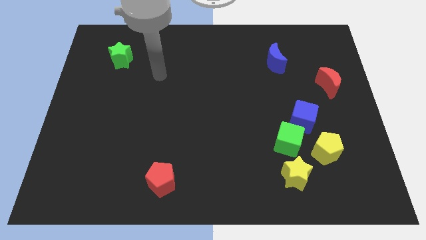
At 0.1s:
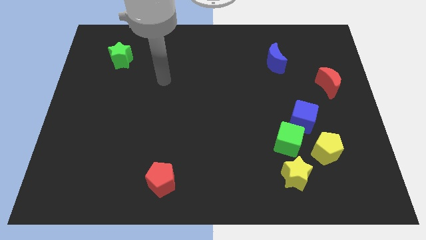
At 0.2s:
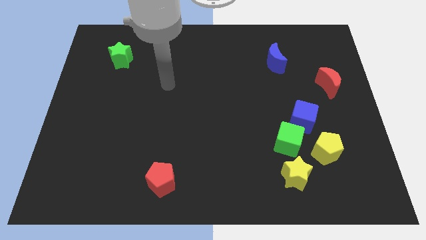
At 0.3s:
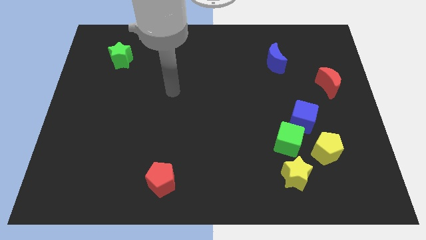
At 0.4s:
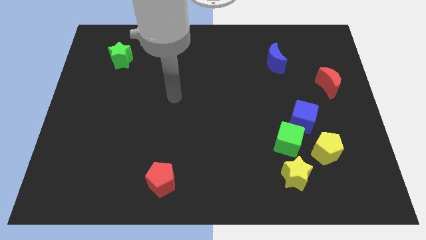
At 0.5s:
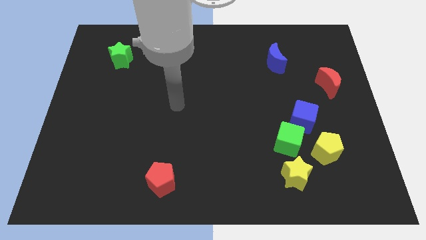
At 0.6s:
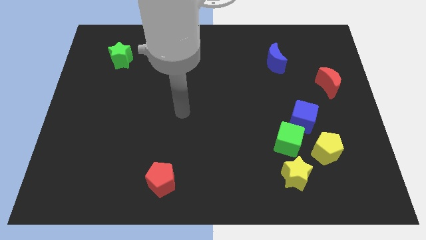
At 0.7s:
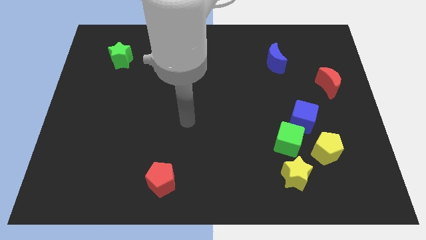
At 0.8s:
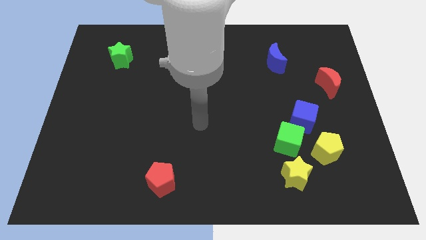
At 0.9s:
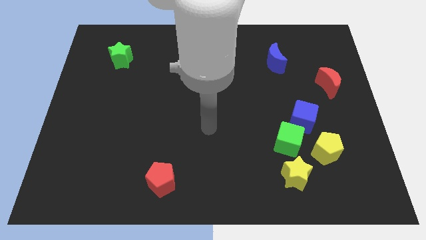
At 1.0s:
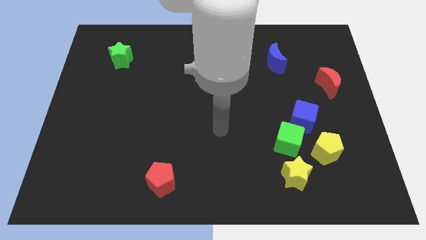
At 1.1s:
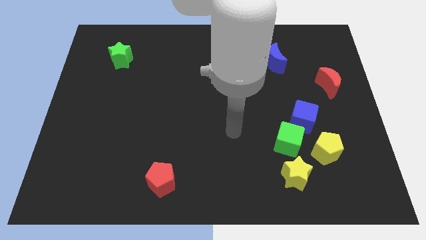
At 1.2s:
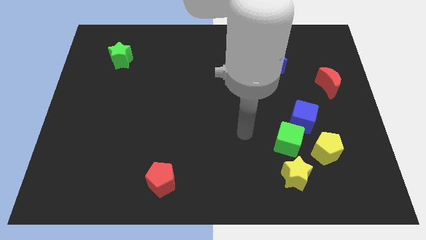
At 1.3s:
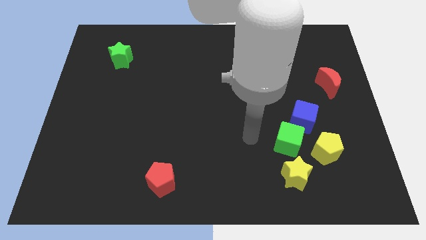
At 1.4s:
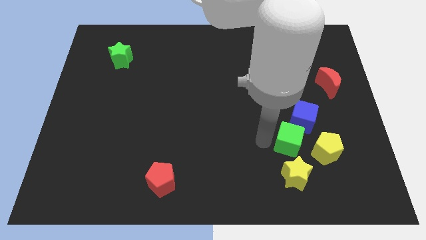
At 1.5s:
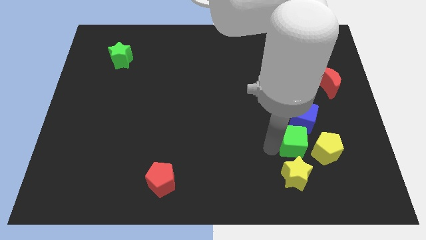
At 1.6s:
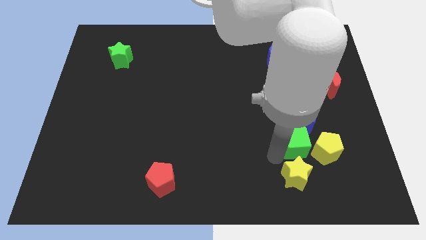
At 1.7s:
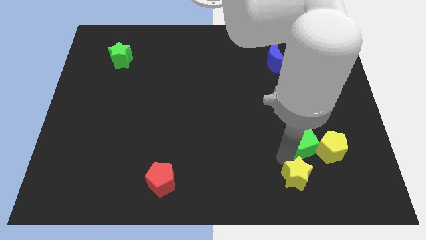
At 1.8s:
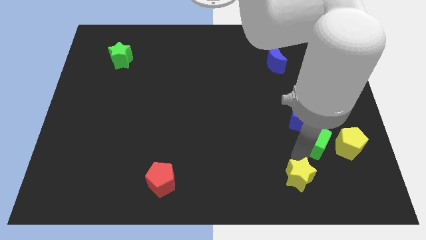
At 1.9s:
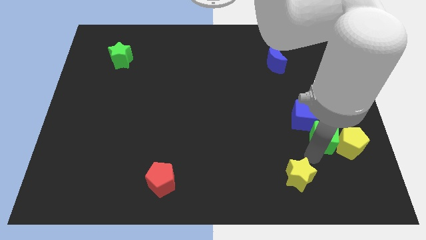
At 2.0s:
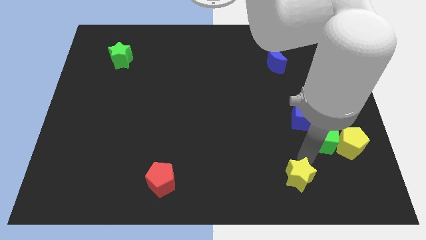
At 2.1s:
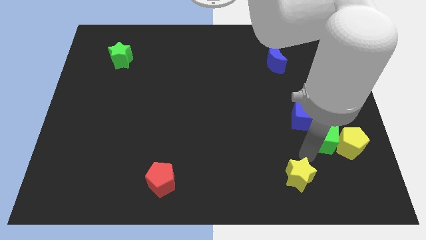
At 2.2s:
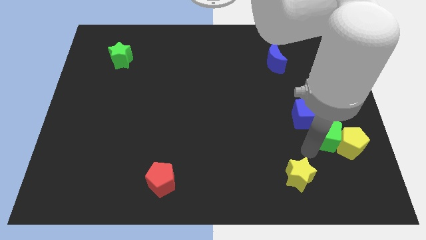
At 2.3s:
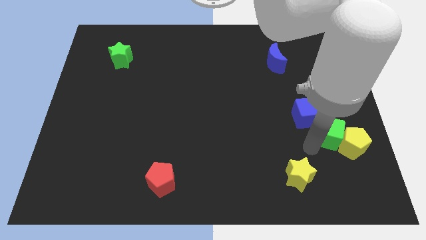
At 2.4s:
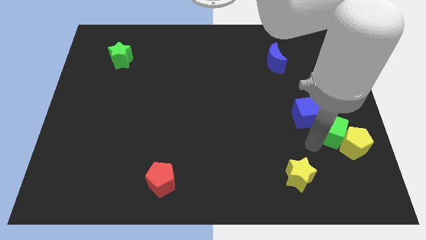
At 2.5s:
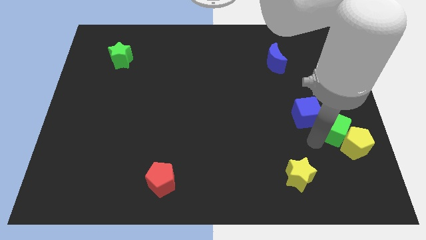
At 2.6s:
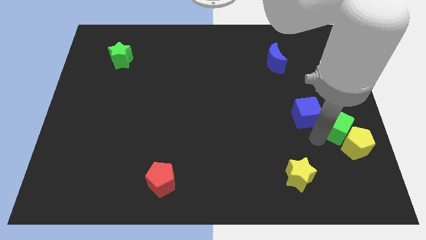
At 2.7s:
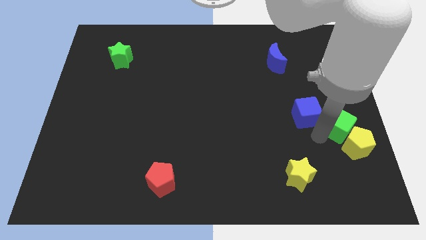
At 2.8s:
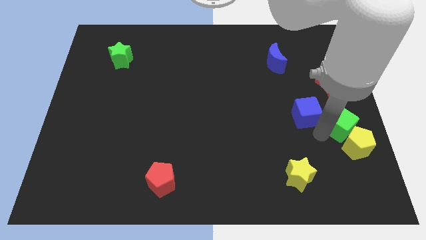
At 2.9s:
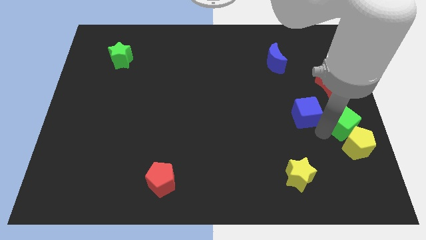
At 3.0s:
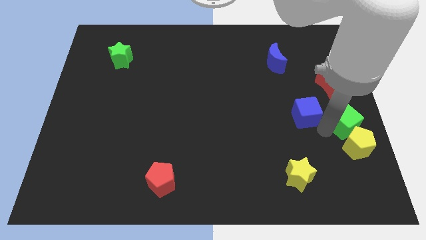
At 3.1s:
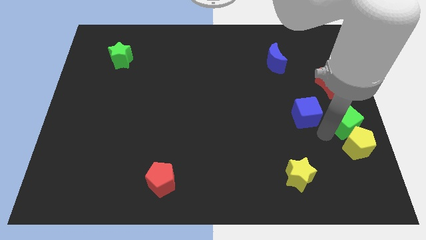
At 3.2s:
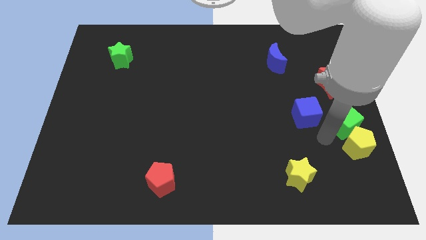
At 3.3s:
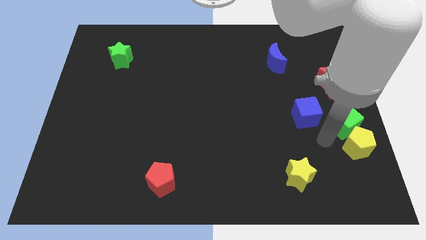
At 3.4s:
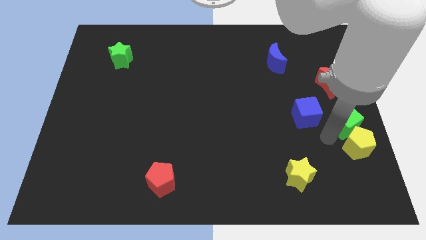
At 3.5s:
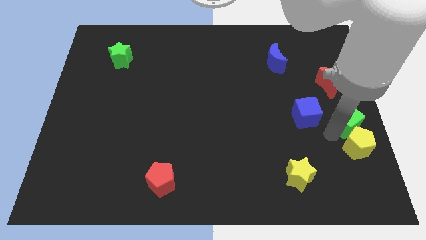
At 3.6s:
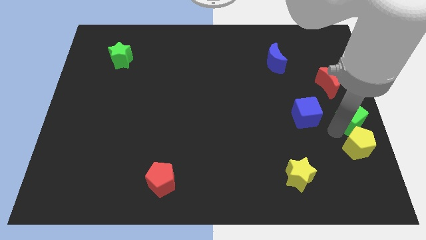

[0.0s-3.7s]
move the green cube away from the blue cube, yellow pentagon, and yellow star

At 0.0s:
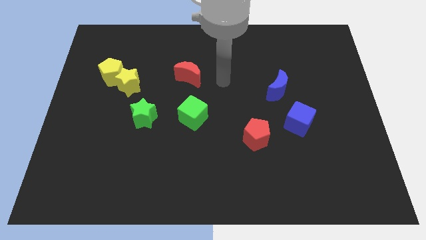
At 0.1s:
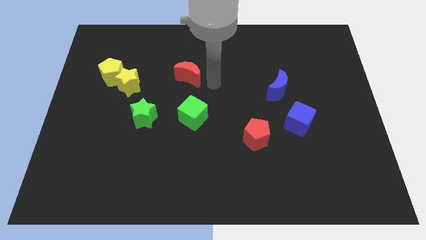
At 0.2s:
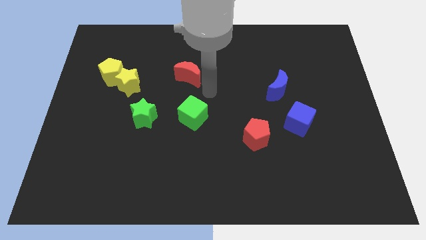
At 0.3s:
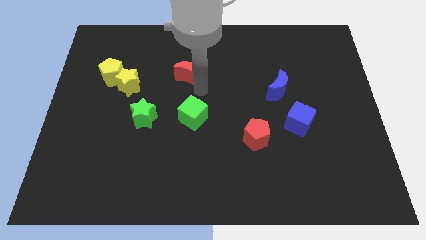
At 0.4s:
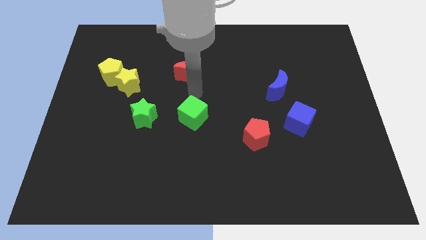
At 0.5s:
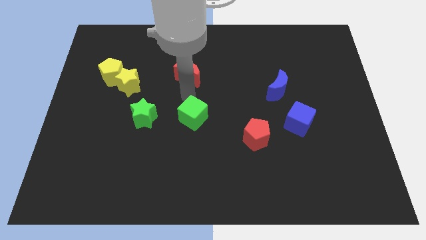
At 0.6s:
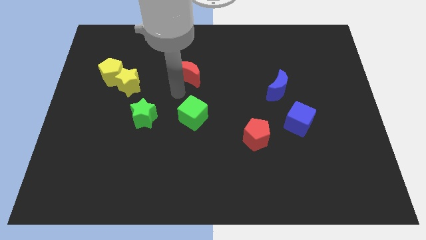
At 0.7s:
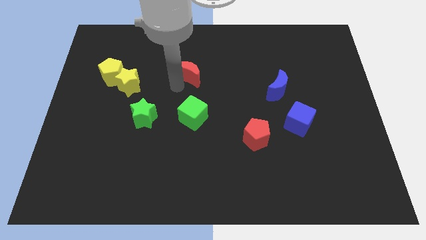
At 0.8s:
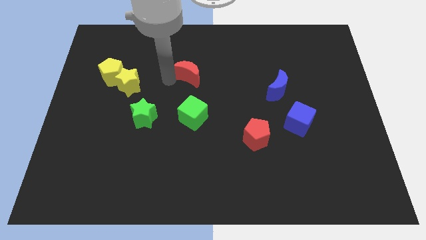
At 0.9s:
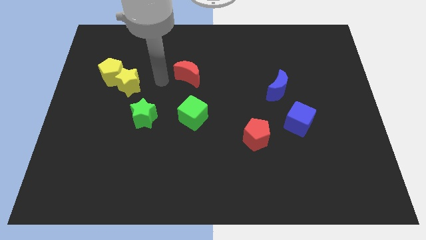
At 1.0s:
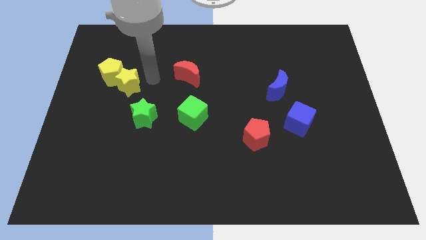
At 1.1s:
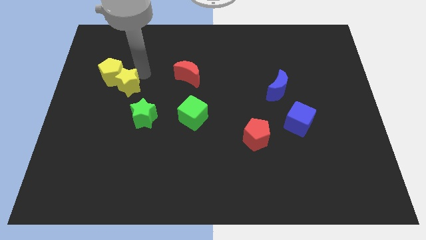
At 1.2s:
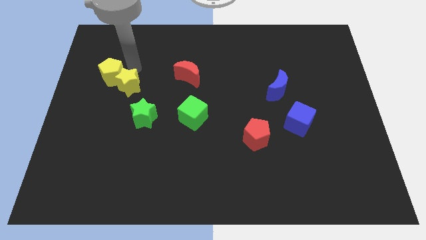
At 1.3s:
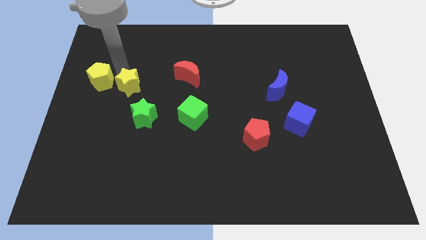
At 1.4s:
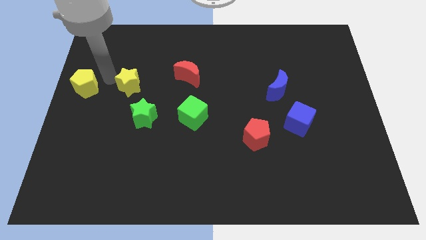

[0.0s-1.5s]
separate the yellow star from the yellow pentagon

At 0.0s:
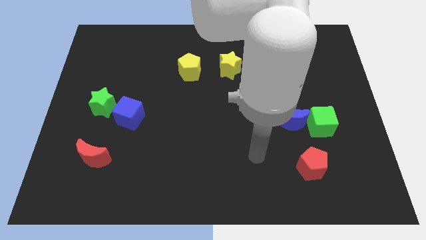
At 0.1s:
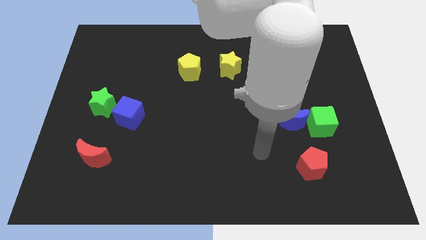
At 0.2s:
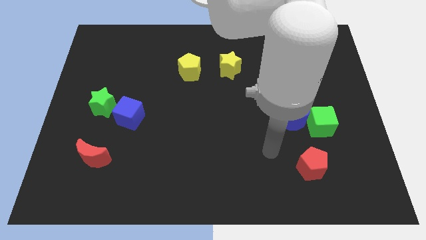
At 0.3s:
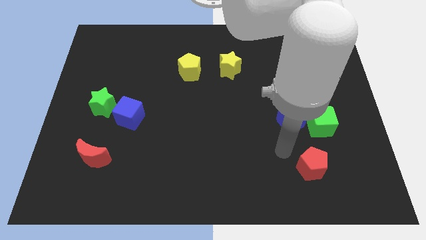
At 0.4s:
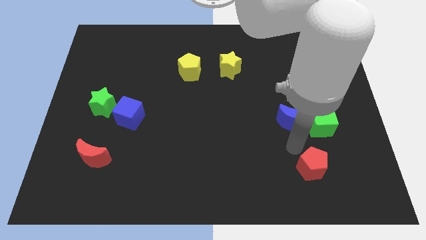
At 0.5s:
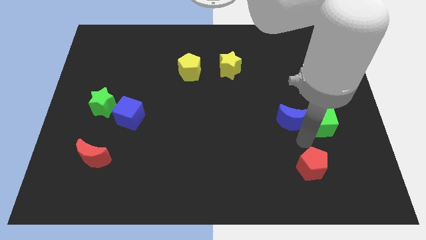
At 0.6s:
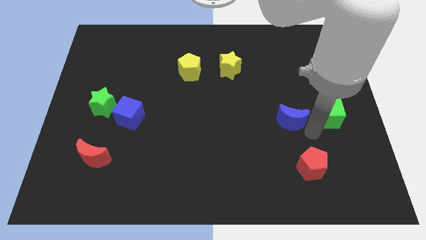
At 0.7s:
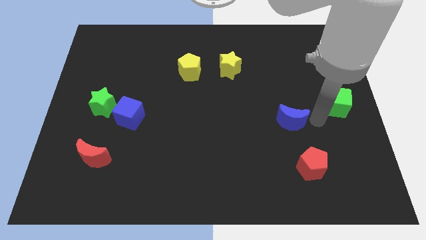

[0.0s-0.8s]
move the blue moon away from the green cube

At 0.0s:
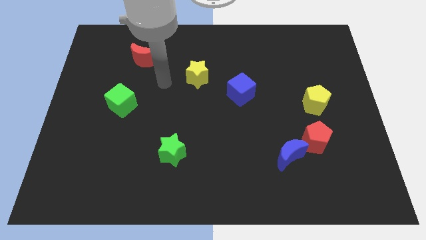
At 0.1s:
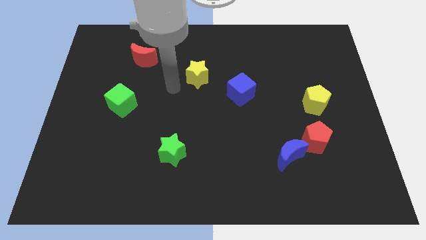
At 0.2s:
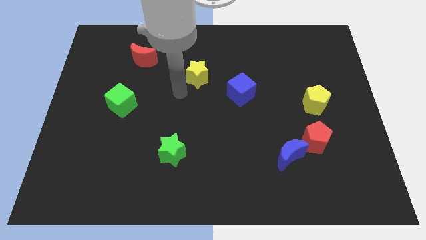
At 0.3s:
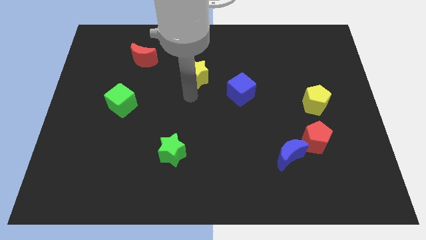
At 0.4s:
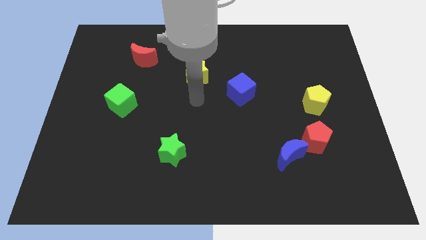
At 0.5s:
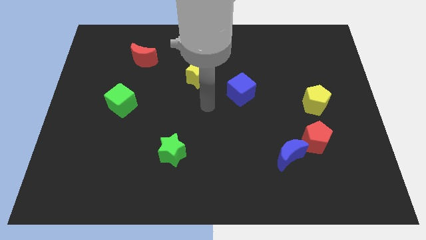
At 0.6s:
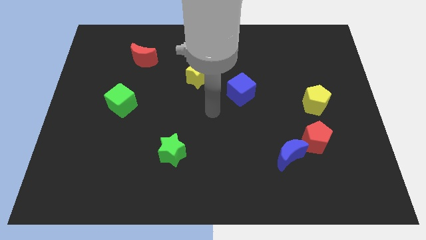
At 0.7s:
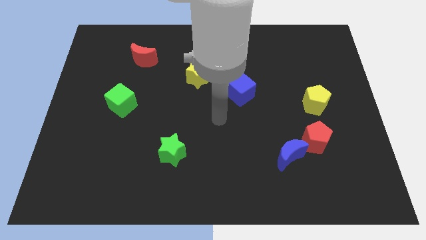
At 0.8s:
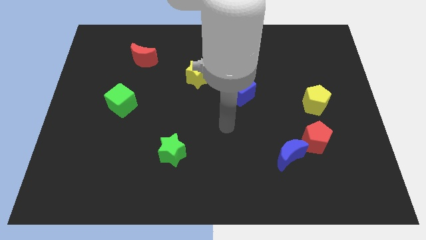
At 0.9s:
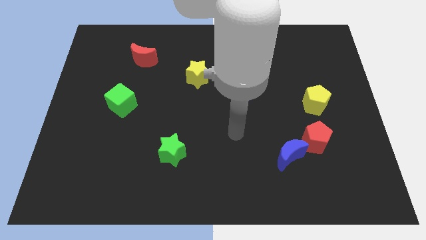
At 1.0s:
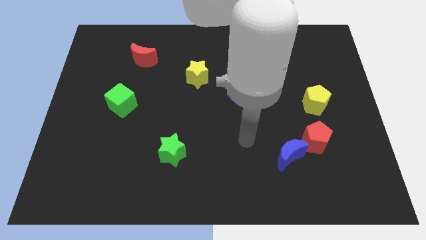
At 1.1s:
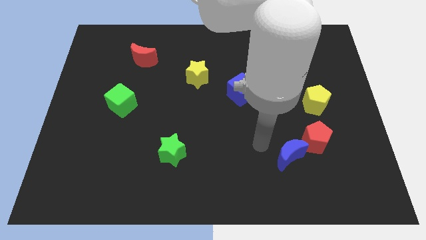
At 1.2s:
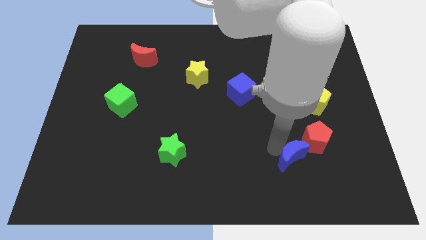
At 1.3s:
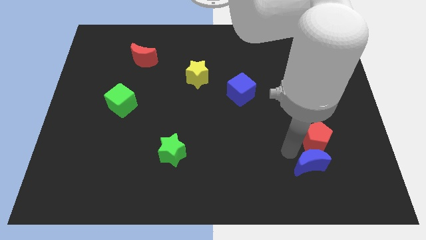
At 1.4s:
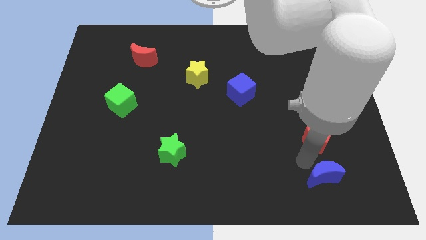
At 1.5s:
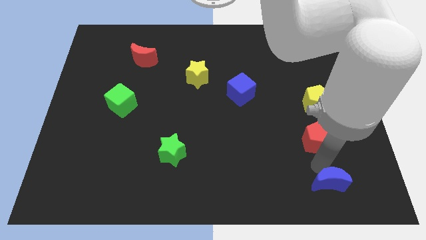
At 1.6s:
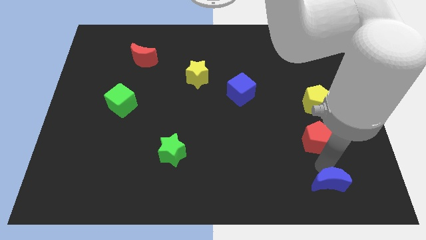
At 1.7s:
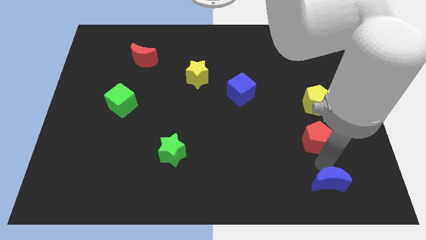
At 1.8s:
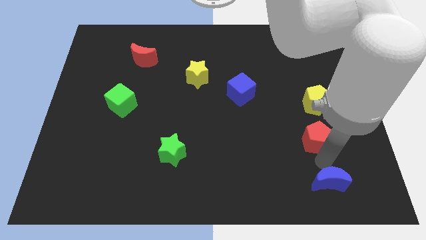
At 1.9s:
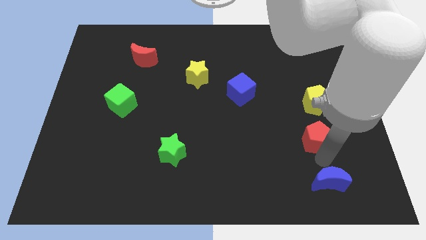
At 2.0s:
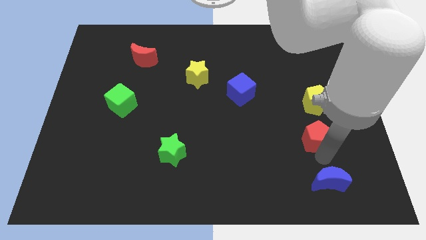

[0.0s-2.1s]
move the red pentagon away from the blue moon

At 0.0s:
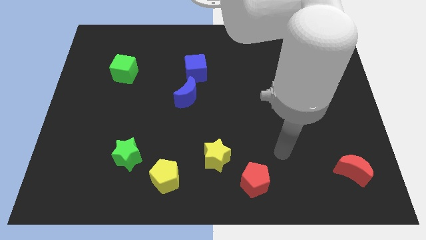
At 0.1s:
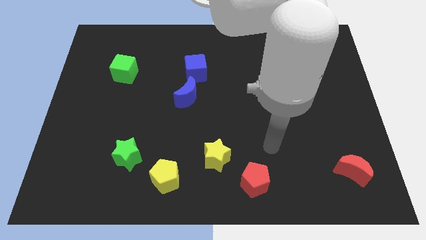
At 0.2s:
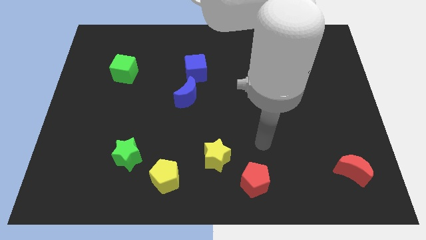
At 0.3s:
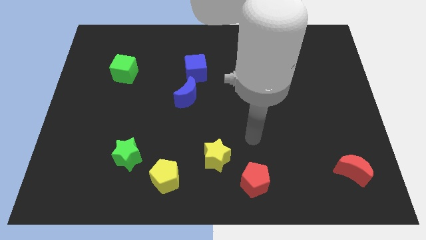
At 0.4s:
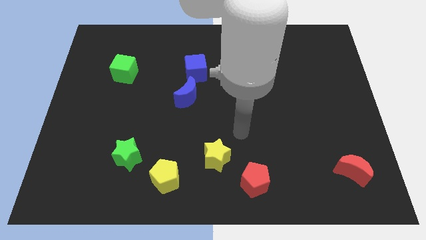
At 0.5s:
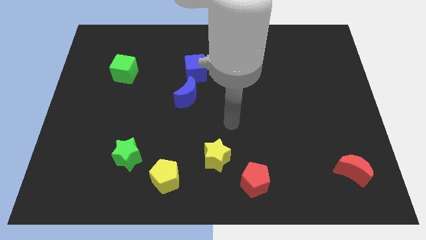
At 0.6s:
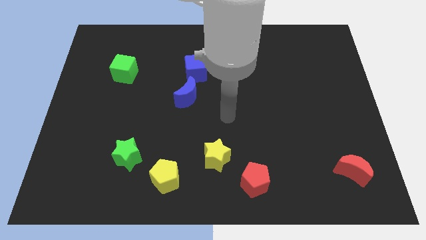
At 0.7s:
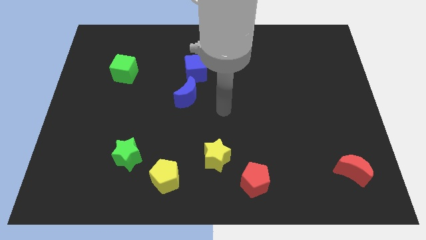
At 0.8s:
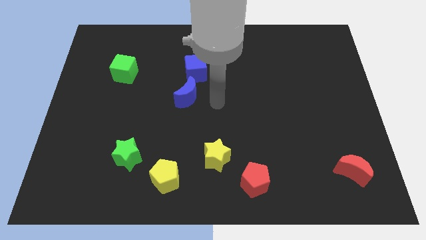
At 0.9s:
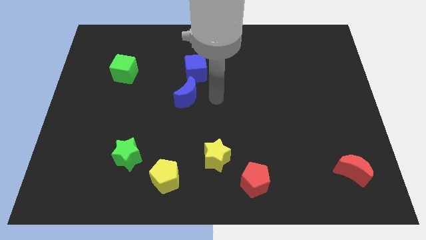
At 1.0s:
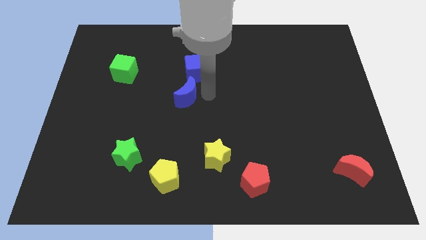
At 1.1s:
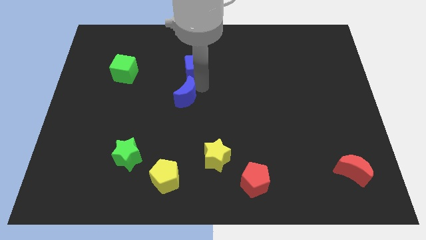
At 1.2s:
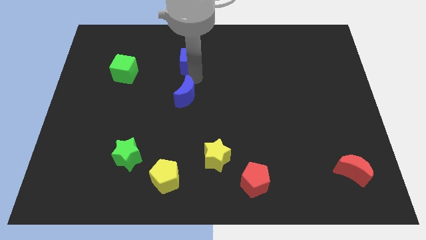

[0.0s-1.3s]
move the blue moon away from the blue cube
